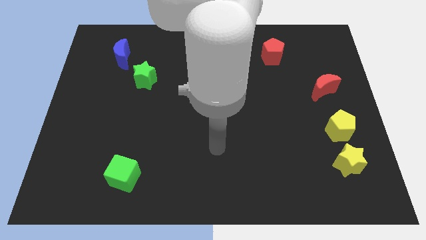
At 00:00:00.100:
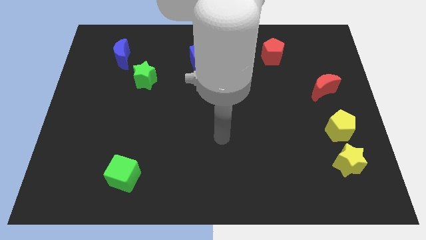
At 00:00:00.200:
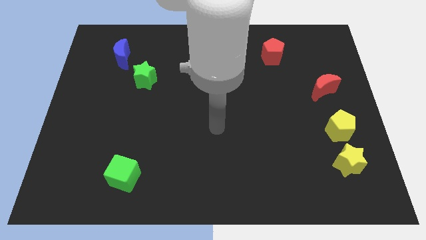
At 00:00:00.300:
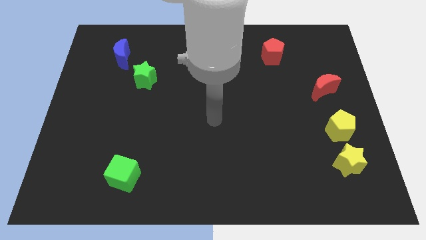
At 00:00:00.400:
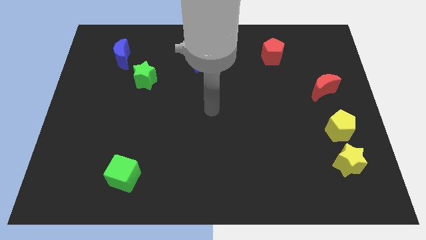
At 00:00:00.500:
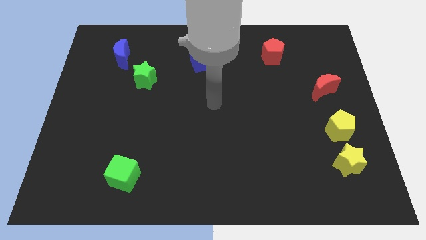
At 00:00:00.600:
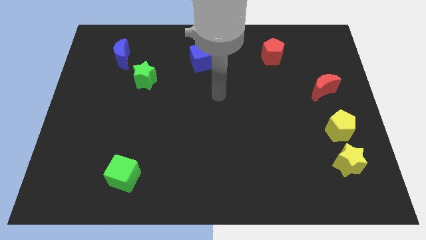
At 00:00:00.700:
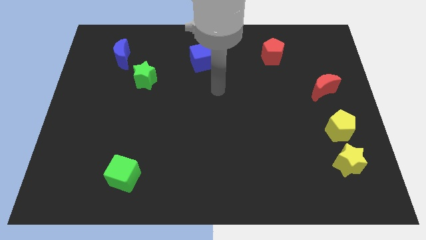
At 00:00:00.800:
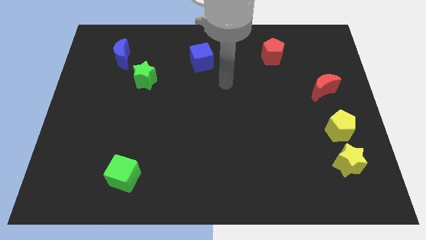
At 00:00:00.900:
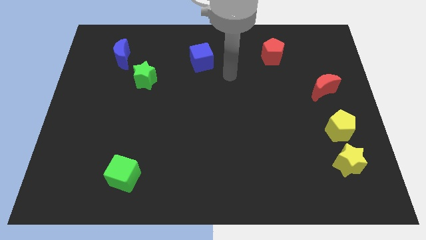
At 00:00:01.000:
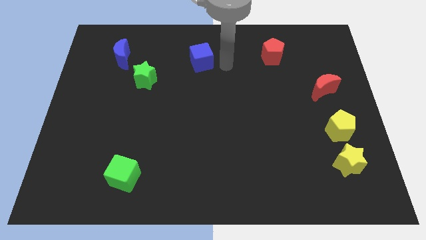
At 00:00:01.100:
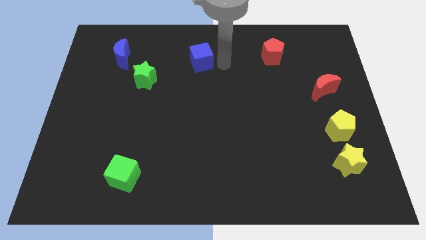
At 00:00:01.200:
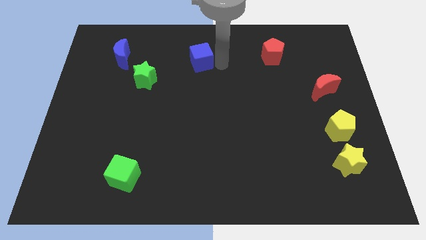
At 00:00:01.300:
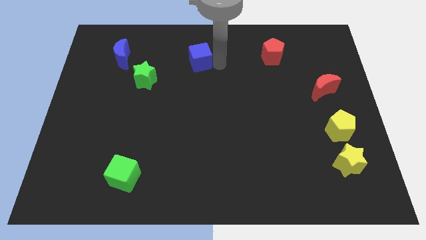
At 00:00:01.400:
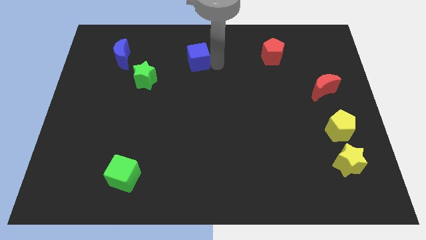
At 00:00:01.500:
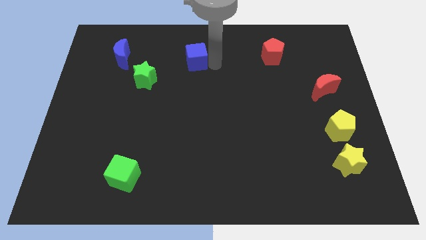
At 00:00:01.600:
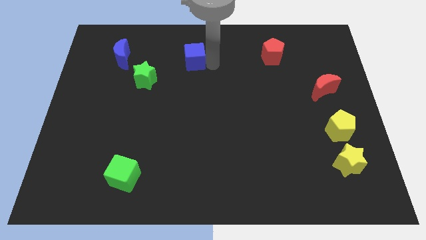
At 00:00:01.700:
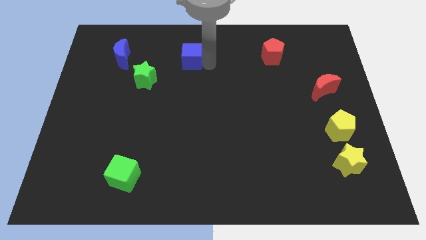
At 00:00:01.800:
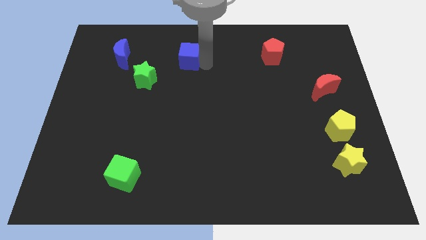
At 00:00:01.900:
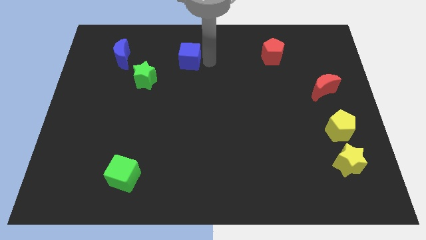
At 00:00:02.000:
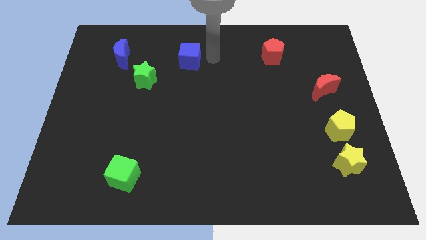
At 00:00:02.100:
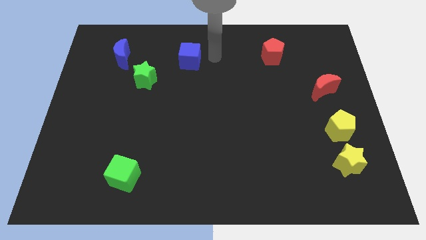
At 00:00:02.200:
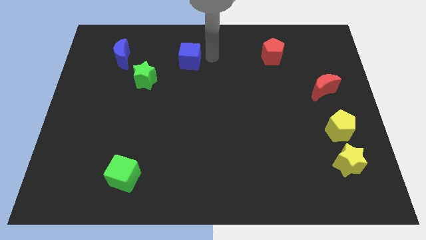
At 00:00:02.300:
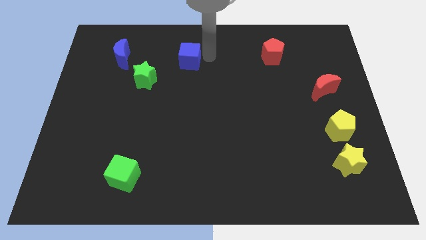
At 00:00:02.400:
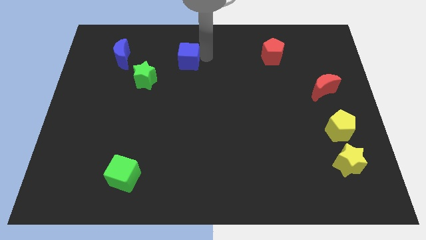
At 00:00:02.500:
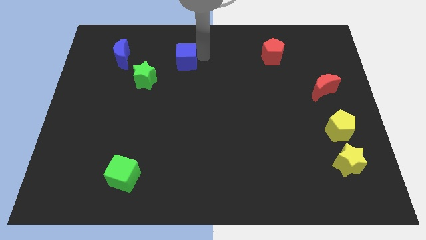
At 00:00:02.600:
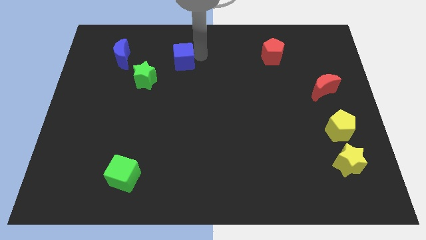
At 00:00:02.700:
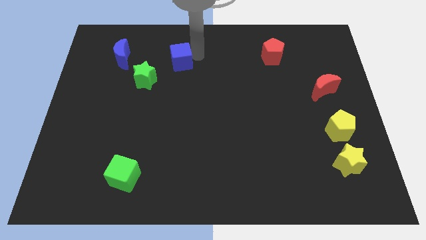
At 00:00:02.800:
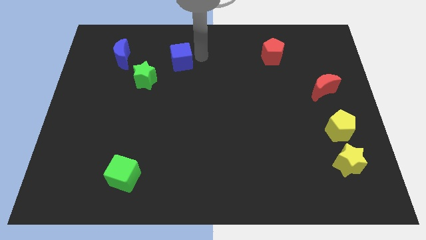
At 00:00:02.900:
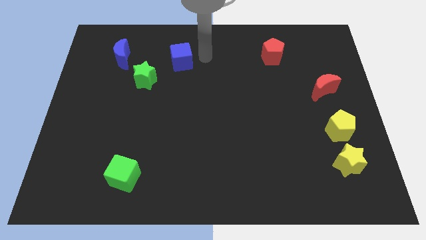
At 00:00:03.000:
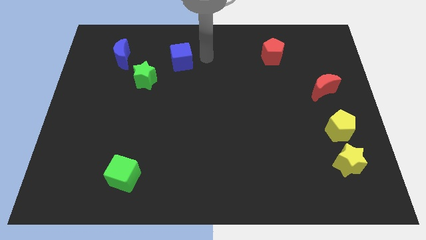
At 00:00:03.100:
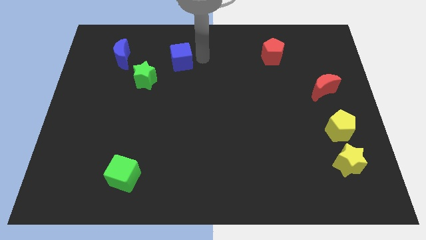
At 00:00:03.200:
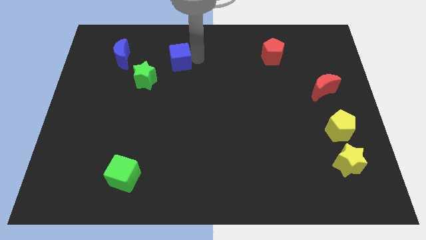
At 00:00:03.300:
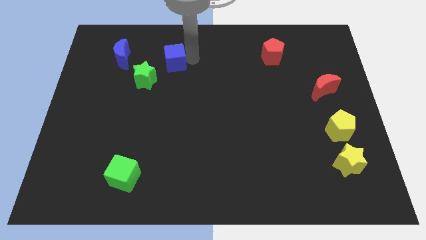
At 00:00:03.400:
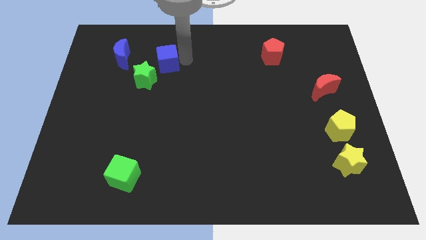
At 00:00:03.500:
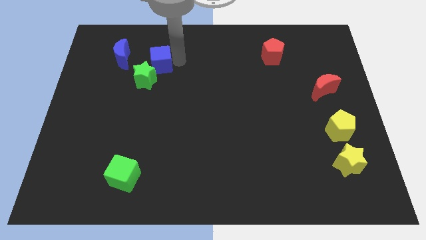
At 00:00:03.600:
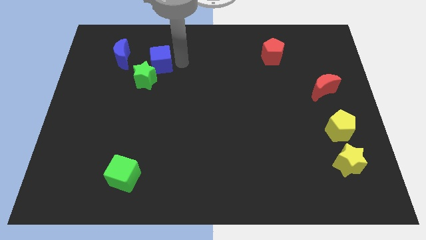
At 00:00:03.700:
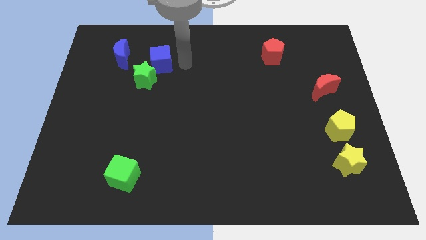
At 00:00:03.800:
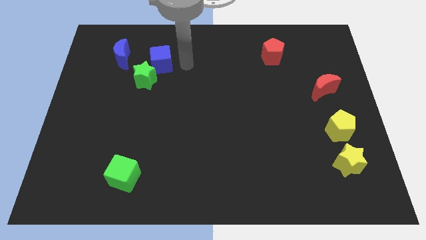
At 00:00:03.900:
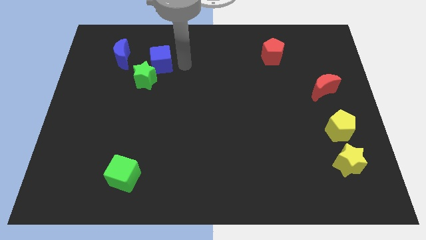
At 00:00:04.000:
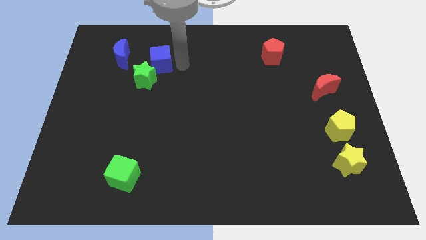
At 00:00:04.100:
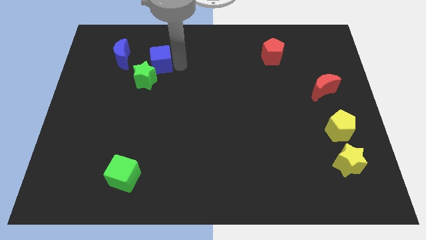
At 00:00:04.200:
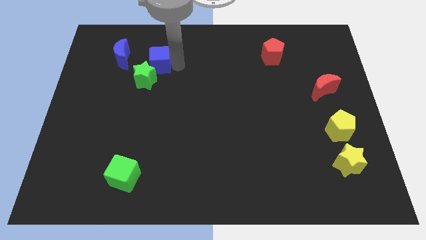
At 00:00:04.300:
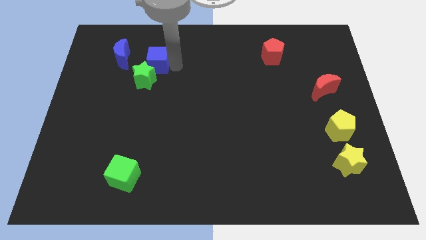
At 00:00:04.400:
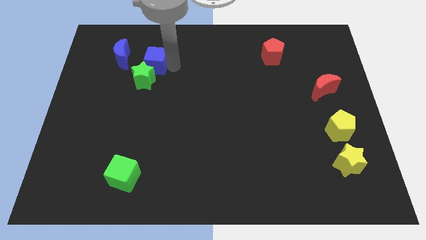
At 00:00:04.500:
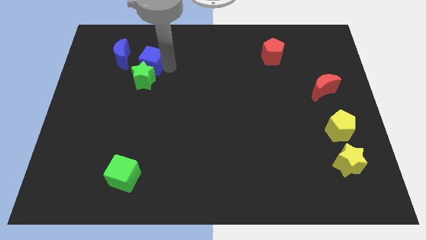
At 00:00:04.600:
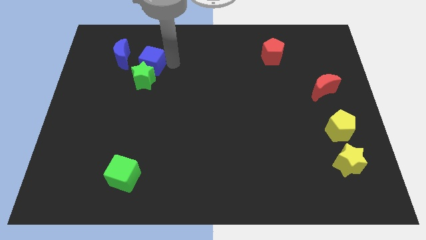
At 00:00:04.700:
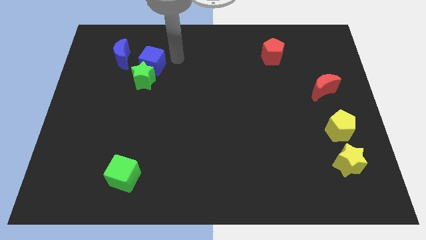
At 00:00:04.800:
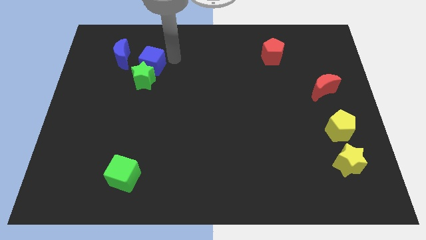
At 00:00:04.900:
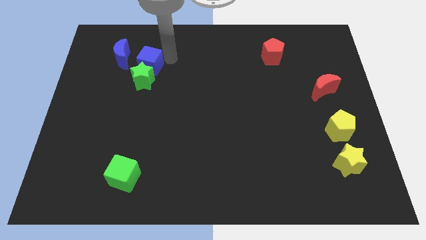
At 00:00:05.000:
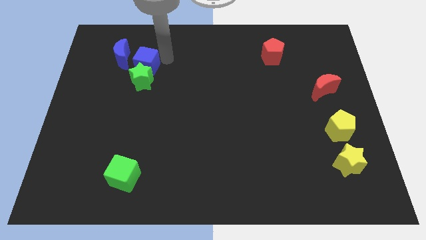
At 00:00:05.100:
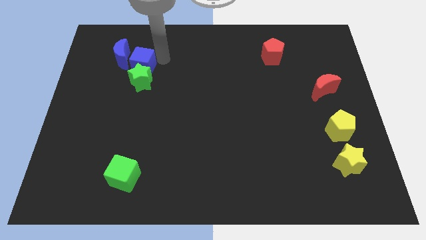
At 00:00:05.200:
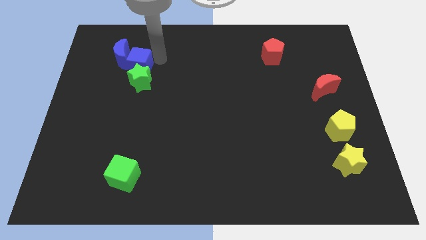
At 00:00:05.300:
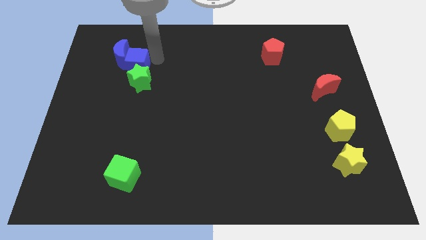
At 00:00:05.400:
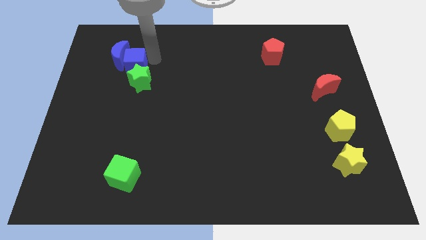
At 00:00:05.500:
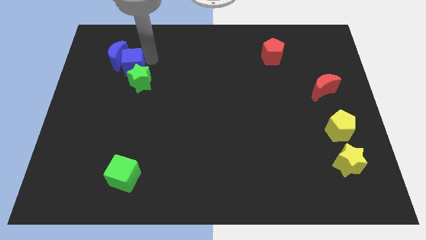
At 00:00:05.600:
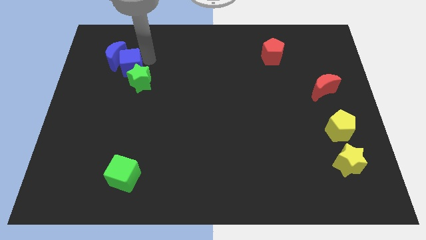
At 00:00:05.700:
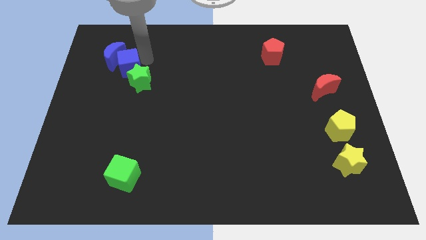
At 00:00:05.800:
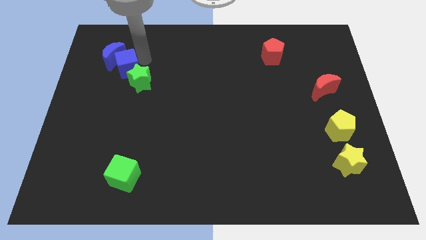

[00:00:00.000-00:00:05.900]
slide the blue cube to the left side of the green star

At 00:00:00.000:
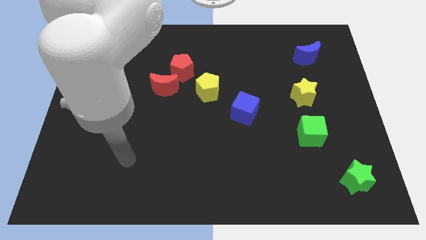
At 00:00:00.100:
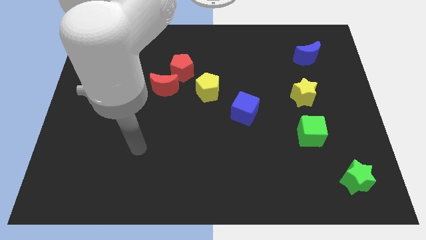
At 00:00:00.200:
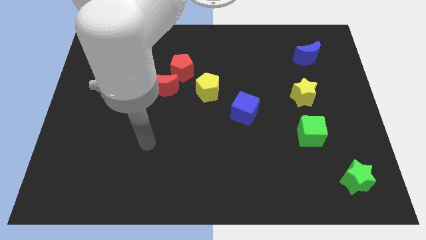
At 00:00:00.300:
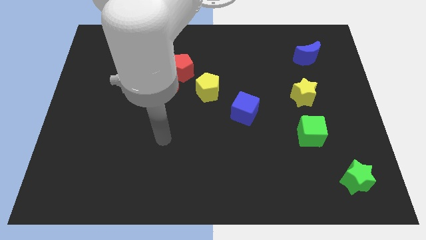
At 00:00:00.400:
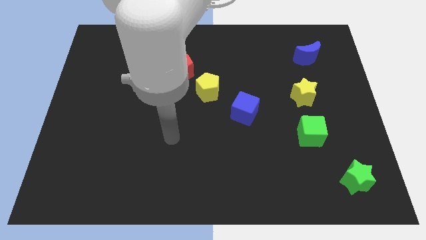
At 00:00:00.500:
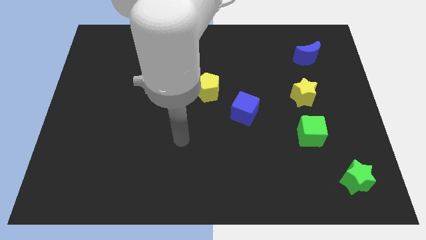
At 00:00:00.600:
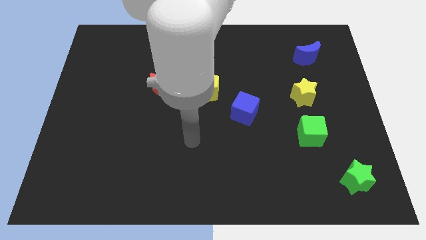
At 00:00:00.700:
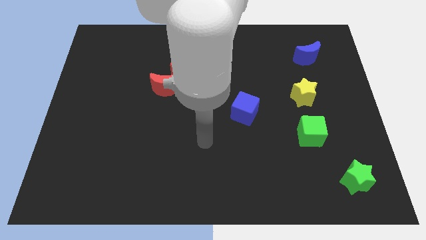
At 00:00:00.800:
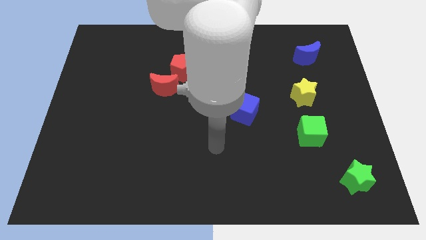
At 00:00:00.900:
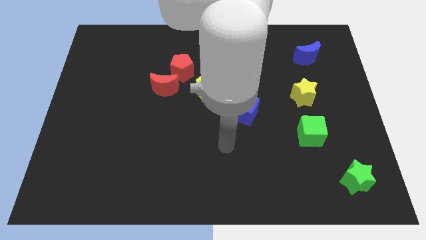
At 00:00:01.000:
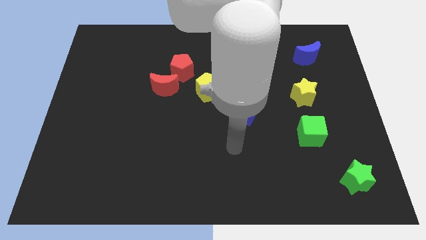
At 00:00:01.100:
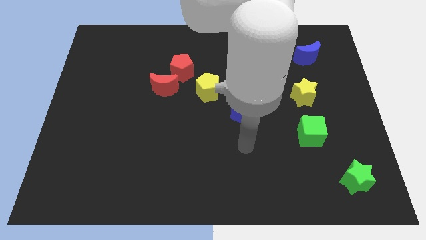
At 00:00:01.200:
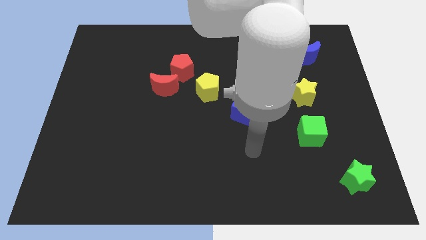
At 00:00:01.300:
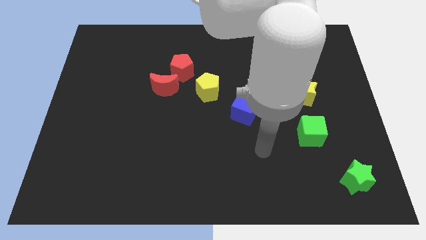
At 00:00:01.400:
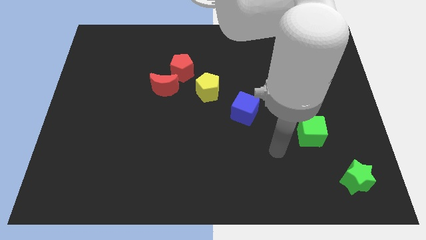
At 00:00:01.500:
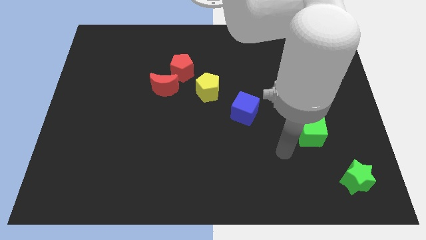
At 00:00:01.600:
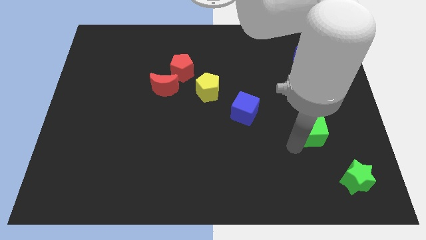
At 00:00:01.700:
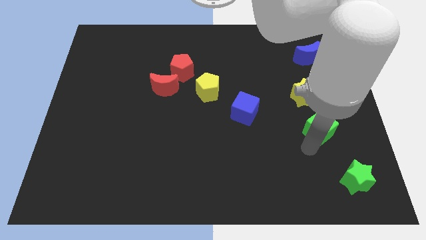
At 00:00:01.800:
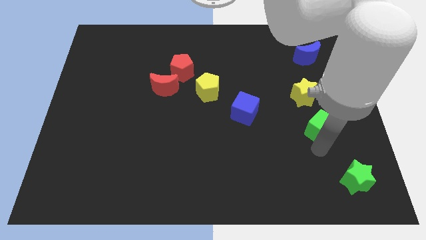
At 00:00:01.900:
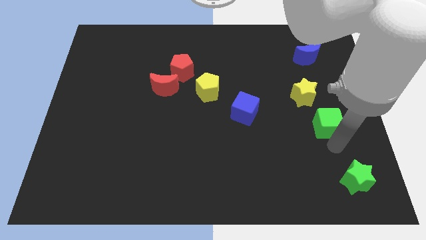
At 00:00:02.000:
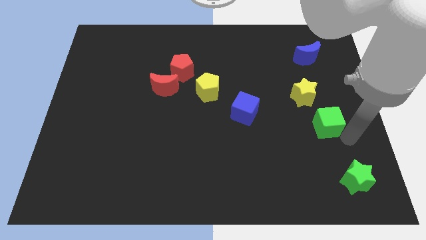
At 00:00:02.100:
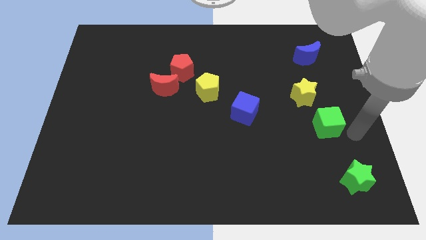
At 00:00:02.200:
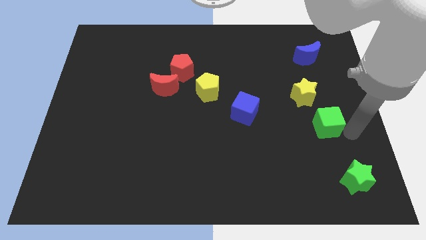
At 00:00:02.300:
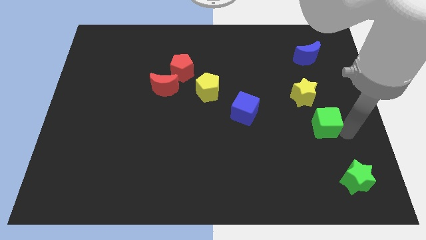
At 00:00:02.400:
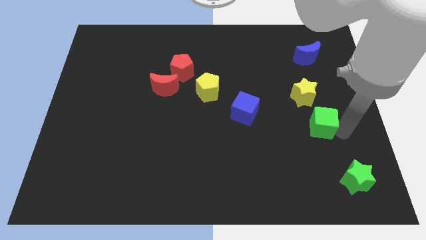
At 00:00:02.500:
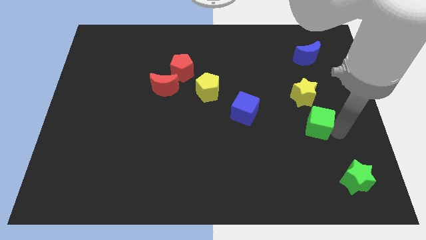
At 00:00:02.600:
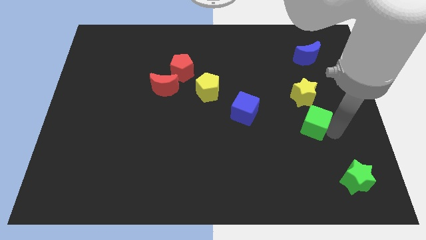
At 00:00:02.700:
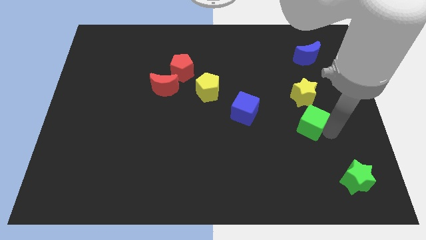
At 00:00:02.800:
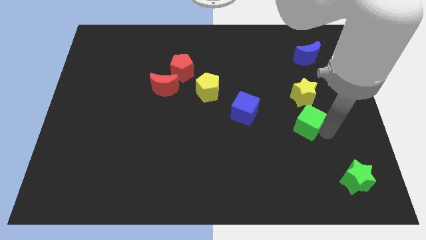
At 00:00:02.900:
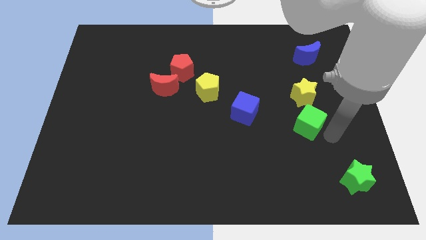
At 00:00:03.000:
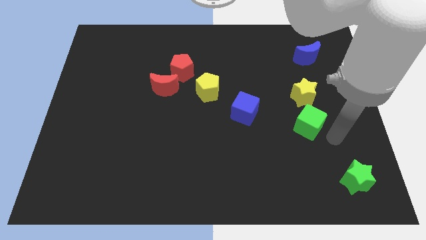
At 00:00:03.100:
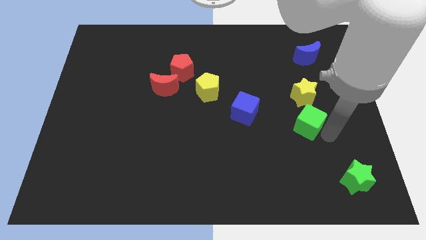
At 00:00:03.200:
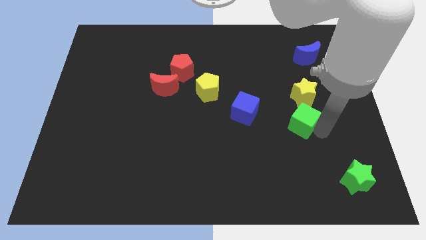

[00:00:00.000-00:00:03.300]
put the green cube to the bottom left side of the yellow star
